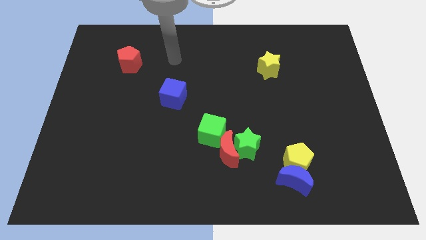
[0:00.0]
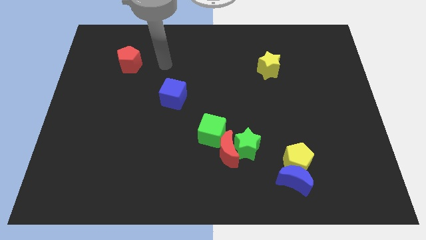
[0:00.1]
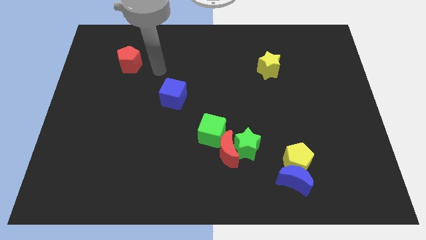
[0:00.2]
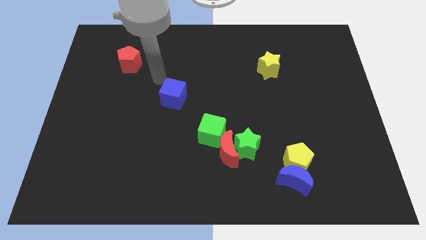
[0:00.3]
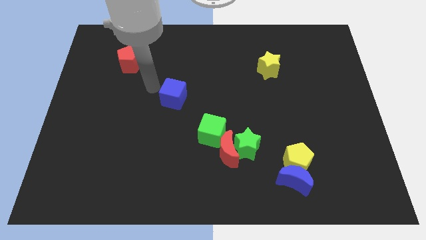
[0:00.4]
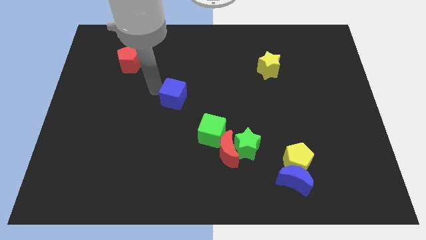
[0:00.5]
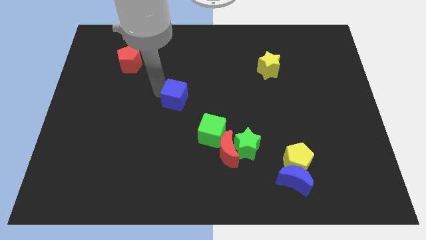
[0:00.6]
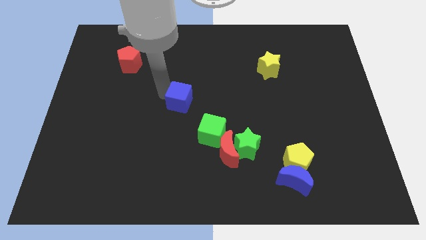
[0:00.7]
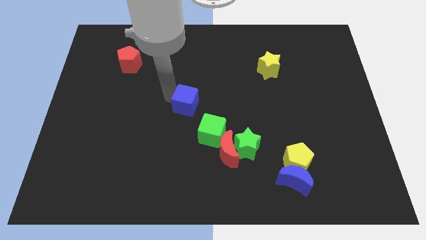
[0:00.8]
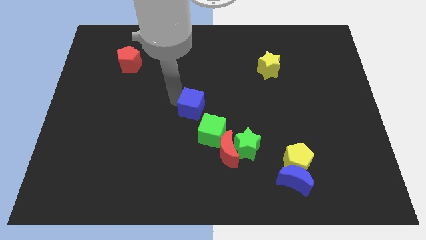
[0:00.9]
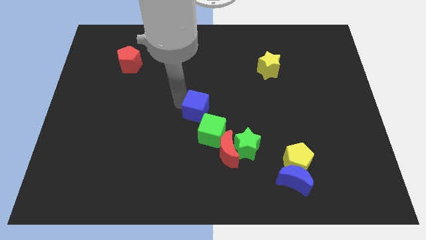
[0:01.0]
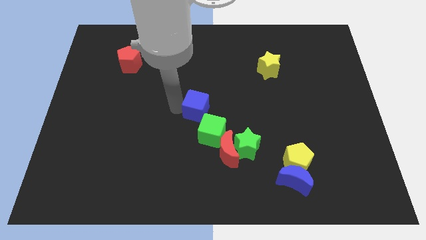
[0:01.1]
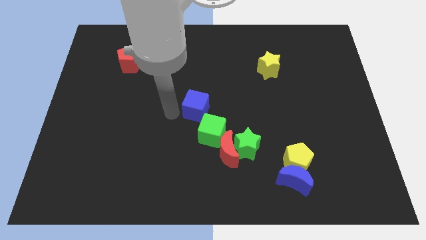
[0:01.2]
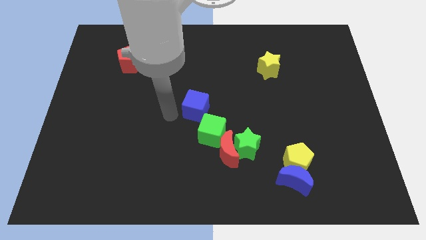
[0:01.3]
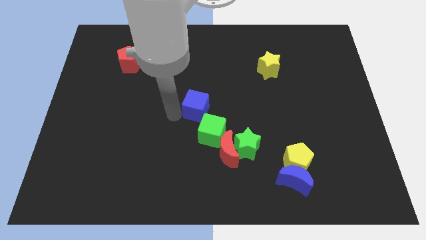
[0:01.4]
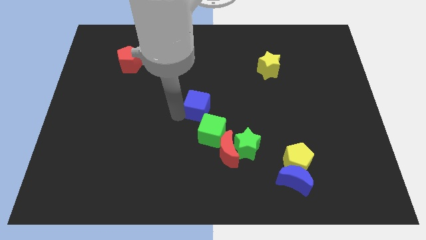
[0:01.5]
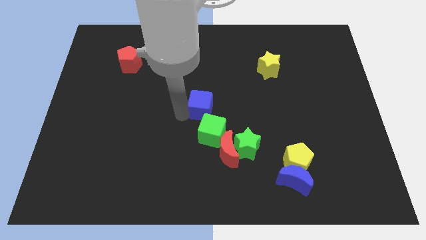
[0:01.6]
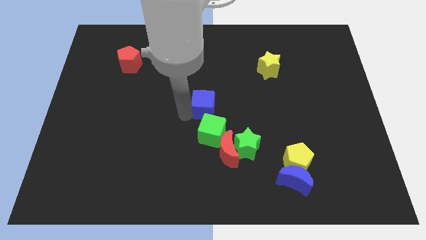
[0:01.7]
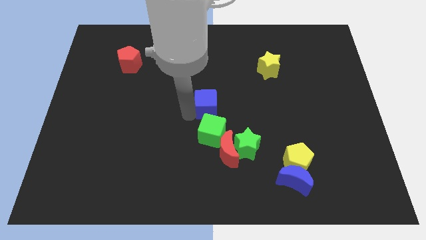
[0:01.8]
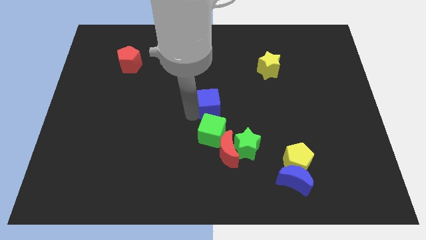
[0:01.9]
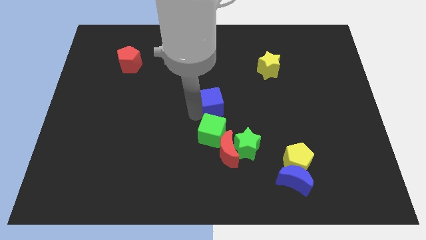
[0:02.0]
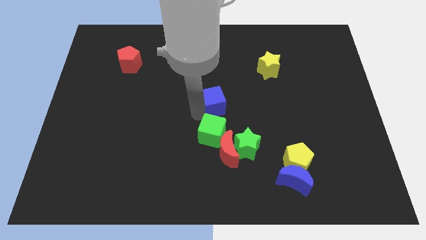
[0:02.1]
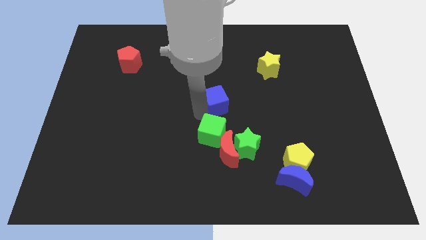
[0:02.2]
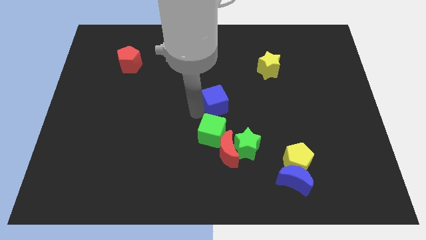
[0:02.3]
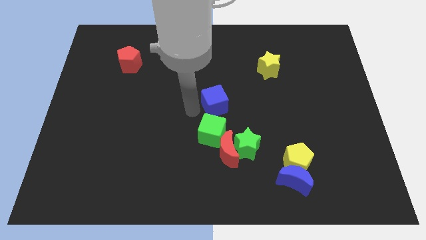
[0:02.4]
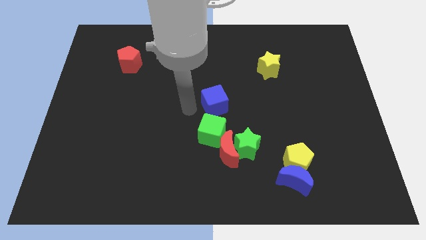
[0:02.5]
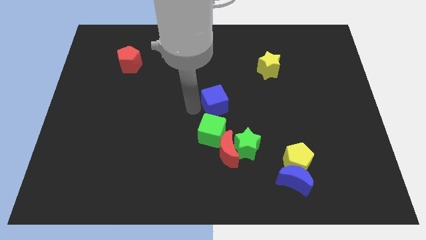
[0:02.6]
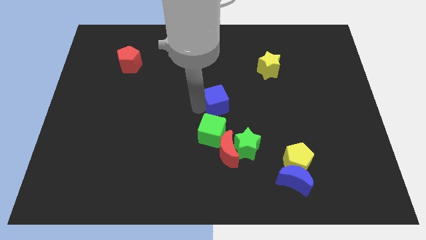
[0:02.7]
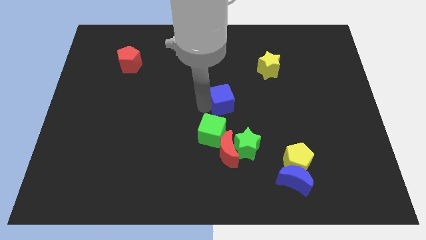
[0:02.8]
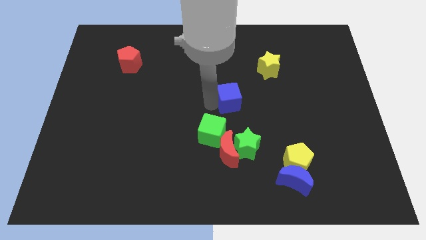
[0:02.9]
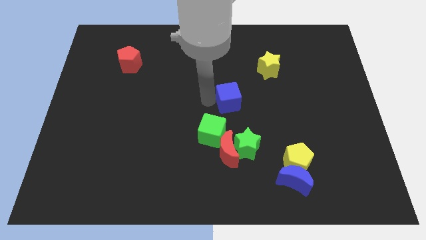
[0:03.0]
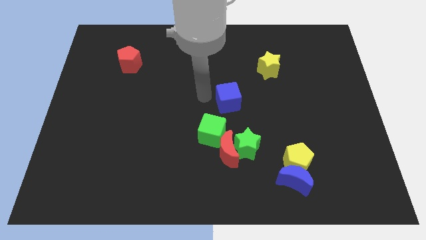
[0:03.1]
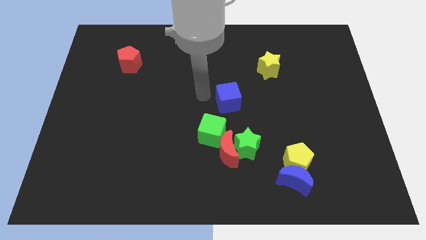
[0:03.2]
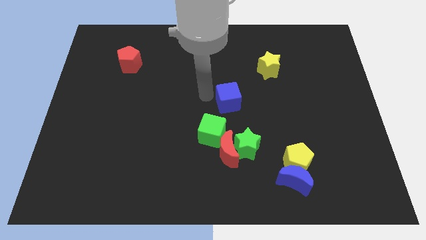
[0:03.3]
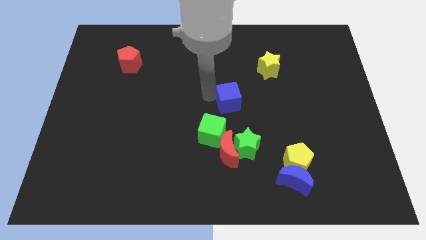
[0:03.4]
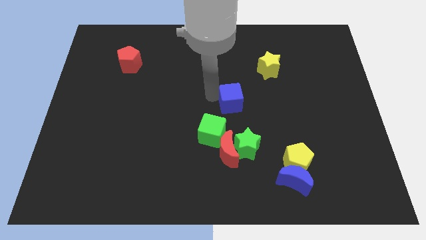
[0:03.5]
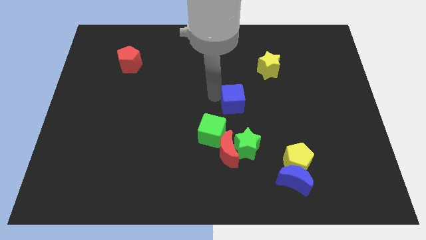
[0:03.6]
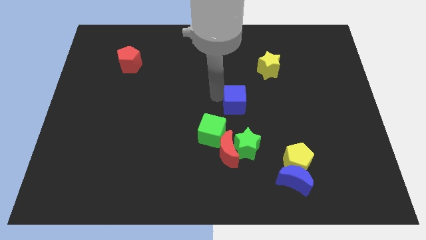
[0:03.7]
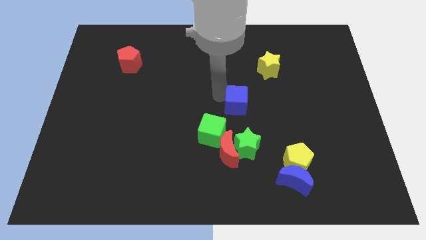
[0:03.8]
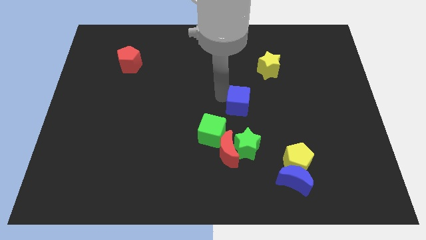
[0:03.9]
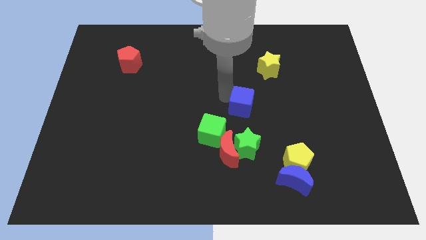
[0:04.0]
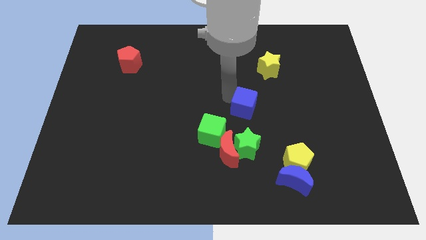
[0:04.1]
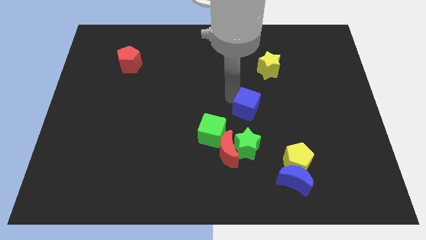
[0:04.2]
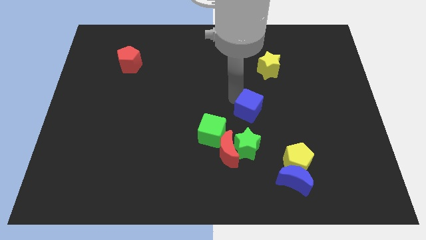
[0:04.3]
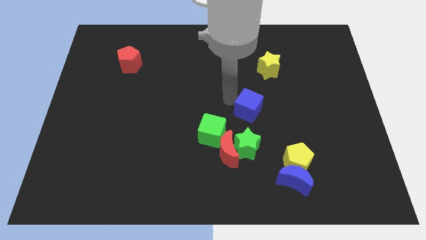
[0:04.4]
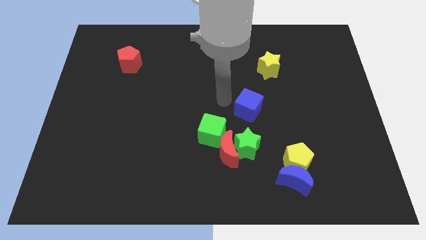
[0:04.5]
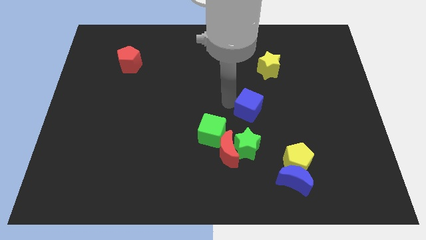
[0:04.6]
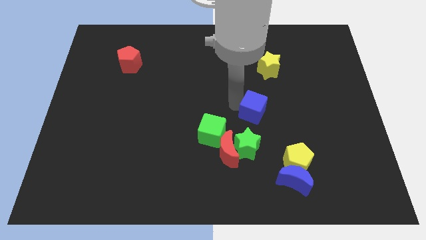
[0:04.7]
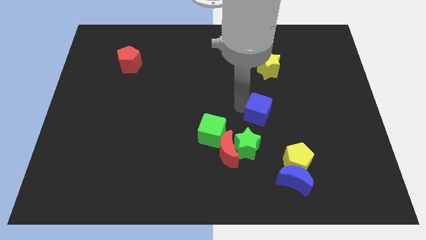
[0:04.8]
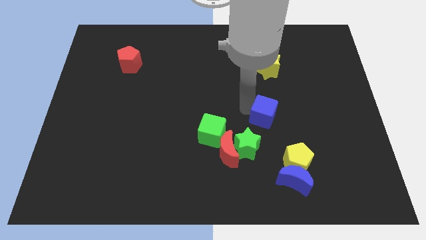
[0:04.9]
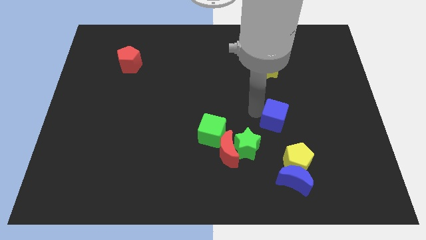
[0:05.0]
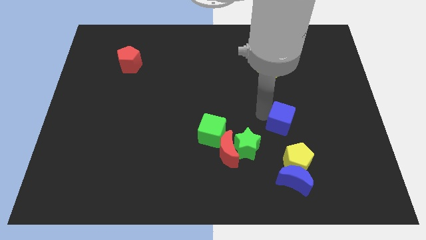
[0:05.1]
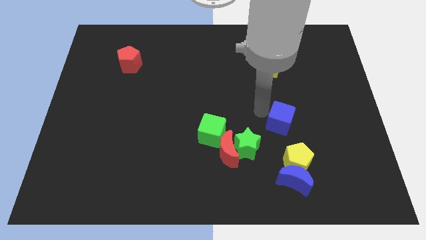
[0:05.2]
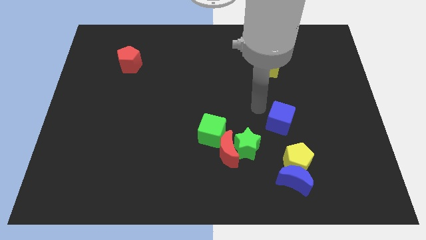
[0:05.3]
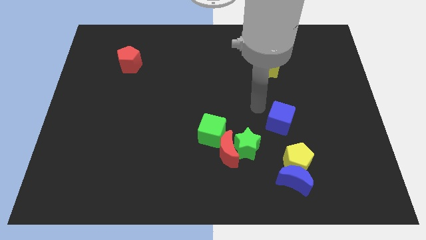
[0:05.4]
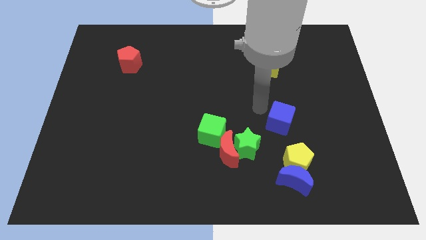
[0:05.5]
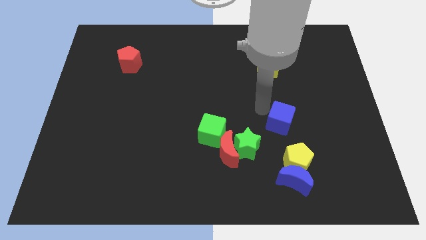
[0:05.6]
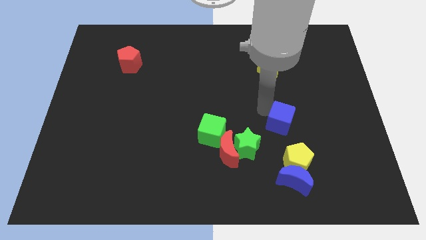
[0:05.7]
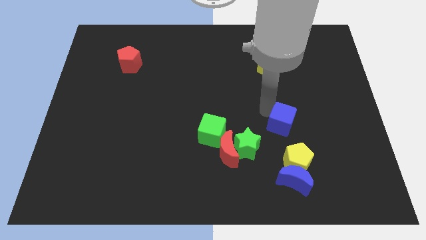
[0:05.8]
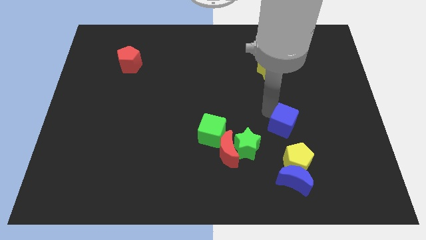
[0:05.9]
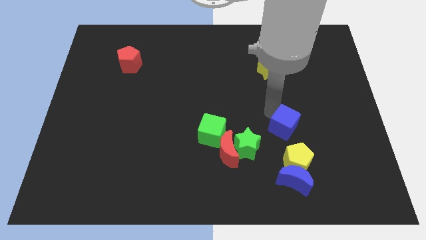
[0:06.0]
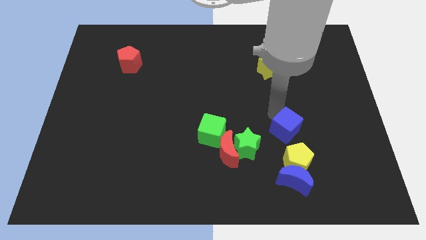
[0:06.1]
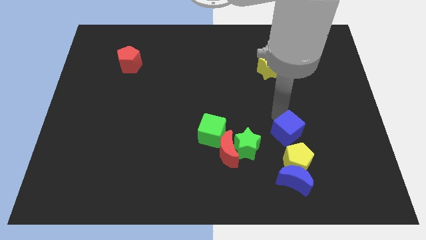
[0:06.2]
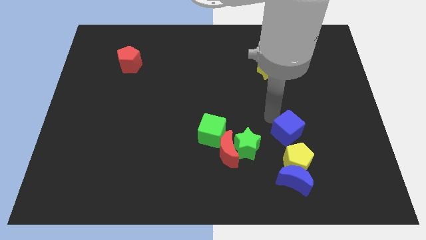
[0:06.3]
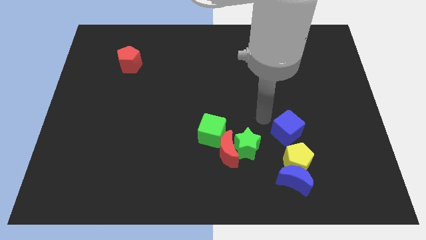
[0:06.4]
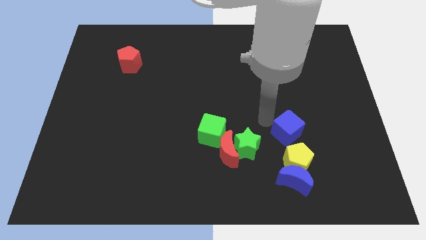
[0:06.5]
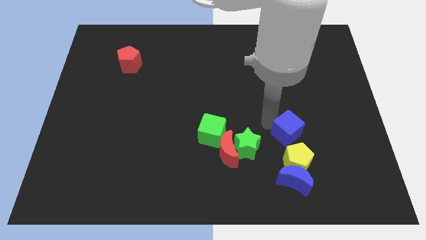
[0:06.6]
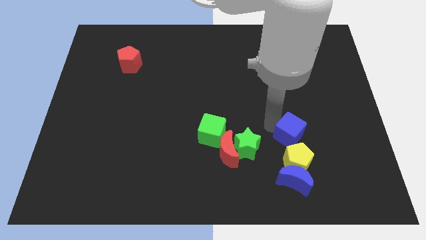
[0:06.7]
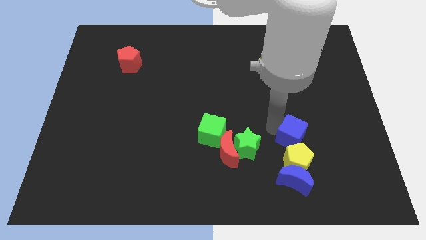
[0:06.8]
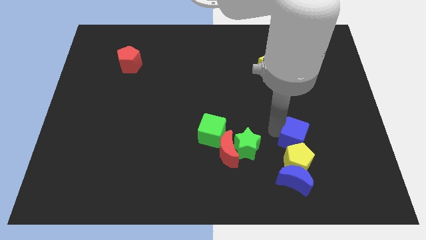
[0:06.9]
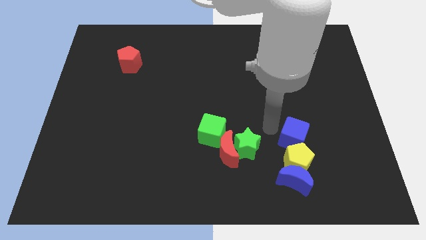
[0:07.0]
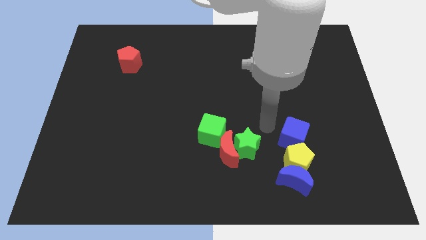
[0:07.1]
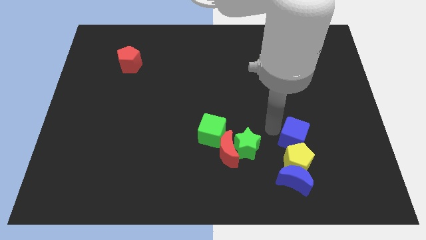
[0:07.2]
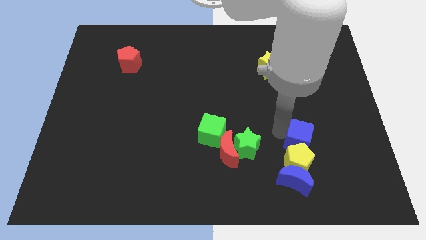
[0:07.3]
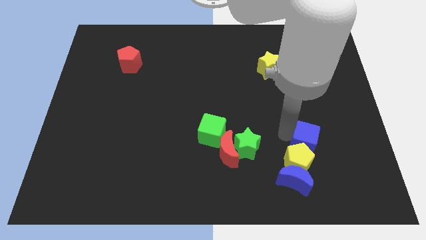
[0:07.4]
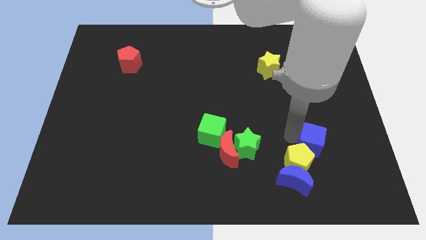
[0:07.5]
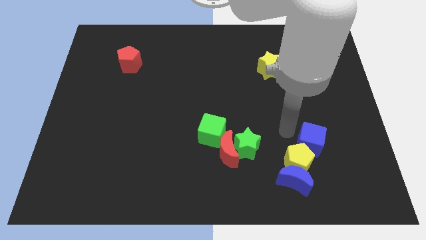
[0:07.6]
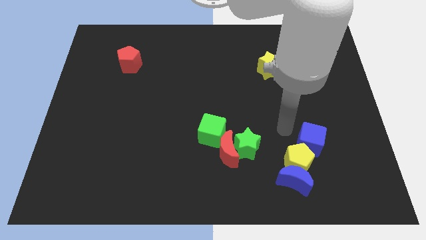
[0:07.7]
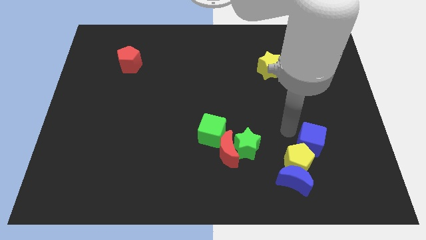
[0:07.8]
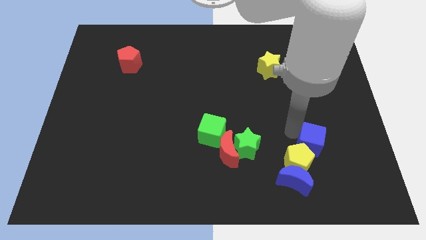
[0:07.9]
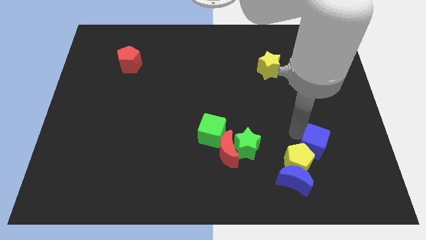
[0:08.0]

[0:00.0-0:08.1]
put the blue cube just right of the yellow pentagon
